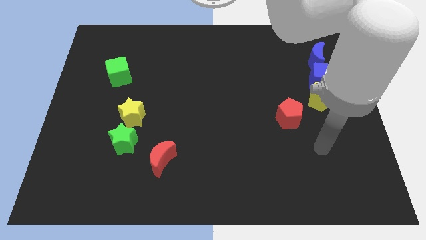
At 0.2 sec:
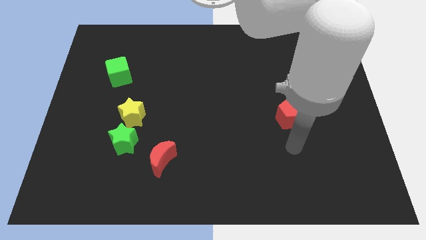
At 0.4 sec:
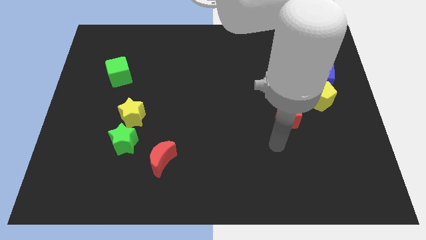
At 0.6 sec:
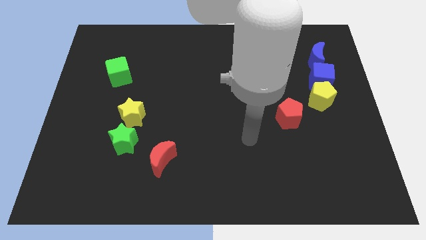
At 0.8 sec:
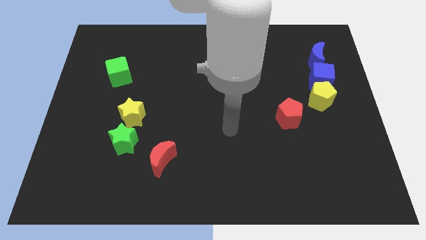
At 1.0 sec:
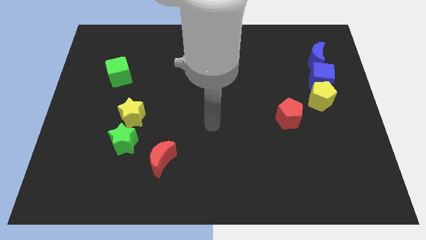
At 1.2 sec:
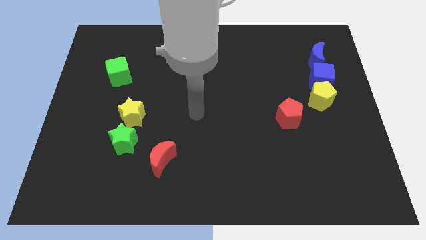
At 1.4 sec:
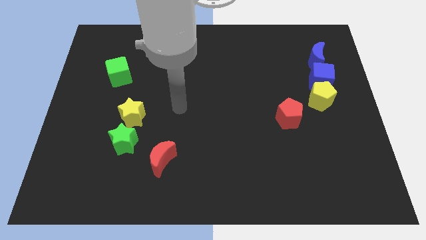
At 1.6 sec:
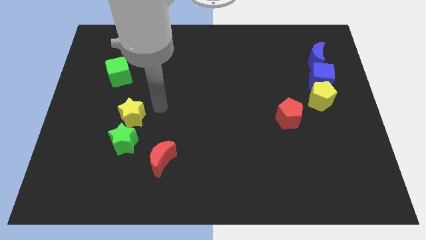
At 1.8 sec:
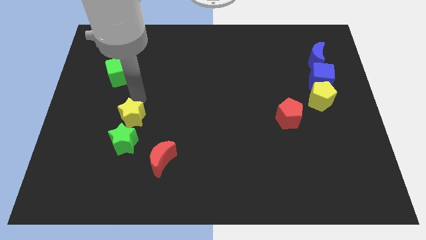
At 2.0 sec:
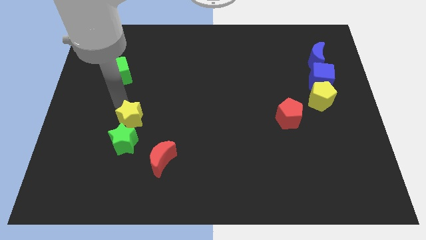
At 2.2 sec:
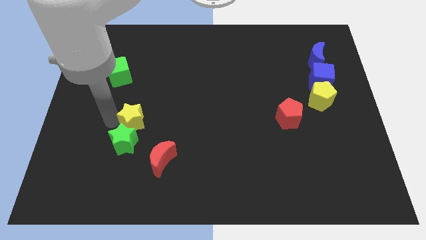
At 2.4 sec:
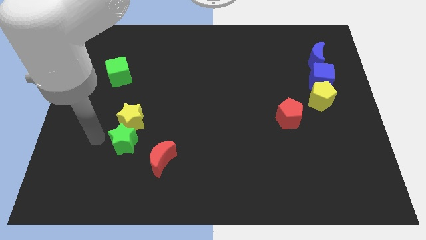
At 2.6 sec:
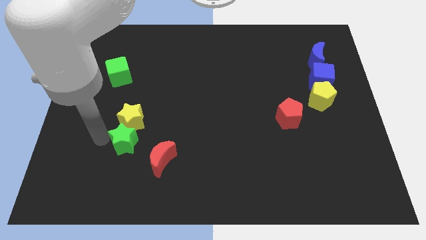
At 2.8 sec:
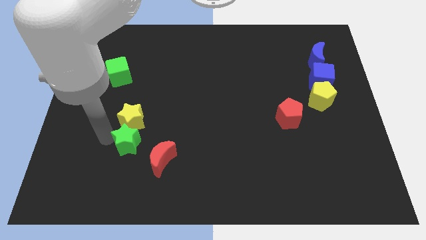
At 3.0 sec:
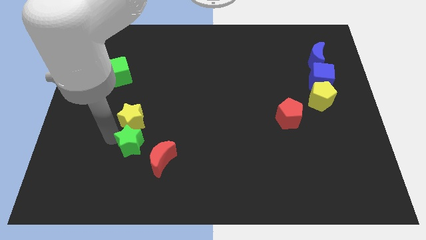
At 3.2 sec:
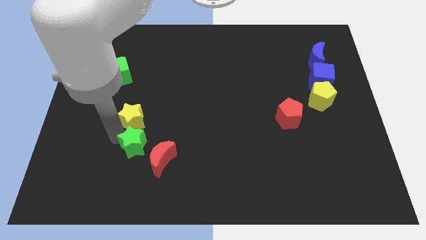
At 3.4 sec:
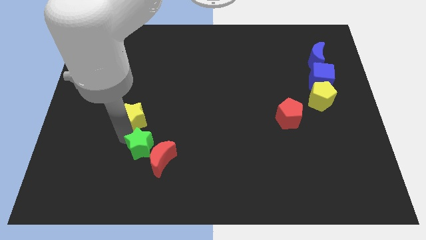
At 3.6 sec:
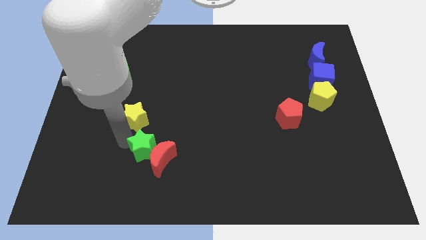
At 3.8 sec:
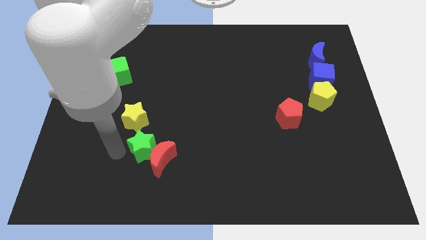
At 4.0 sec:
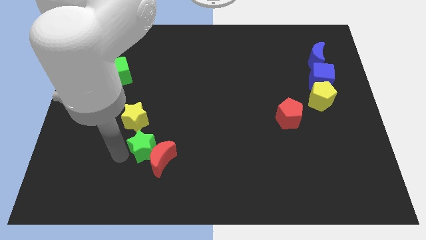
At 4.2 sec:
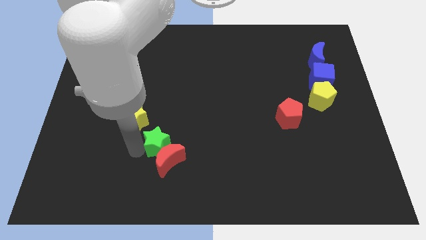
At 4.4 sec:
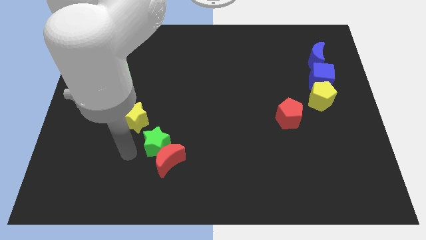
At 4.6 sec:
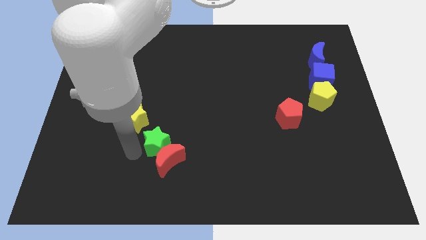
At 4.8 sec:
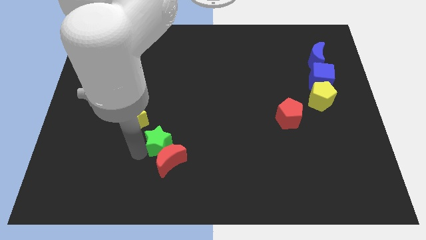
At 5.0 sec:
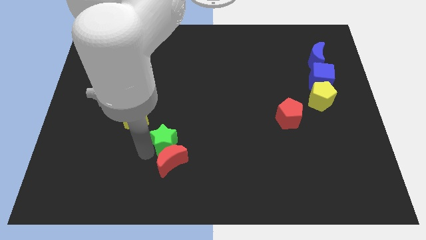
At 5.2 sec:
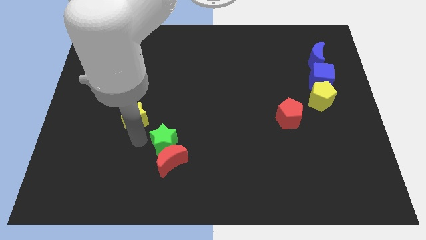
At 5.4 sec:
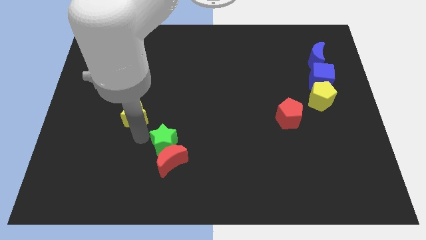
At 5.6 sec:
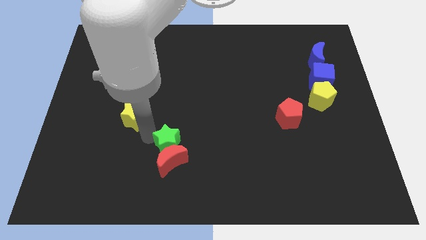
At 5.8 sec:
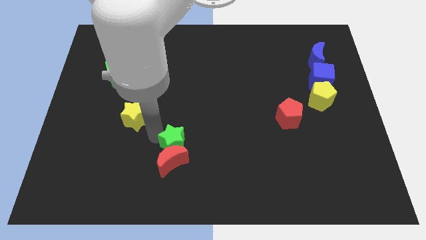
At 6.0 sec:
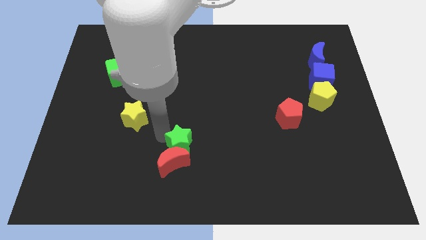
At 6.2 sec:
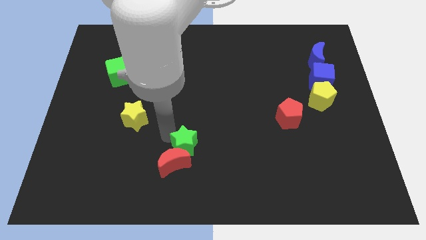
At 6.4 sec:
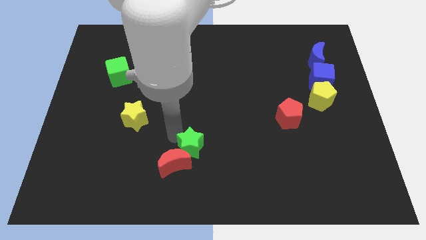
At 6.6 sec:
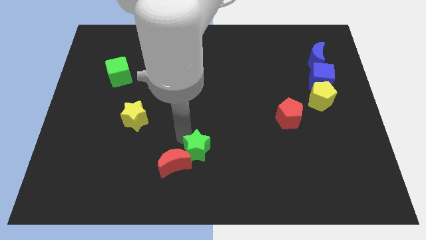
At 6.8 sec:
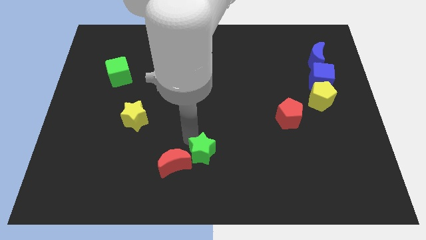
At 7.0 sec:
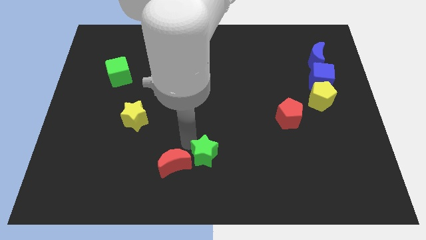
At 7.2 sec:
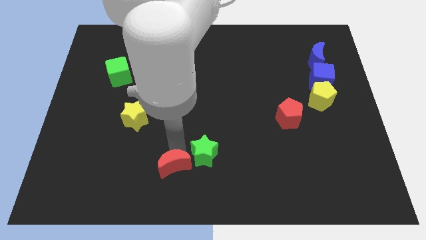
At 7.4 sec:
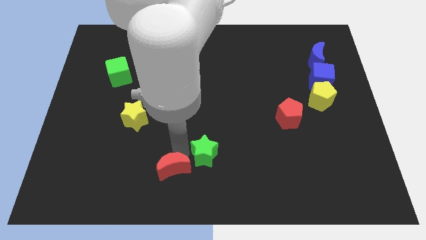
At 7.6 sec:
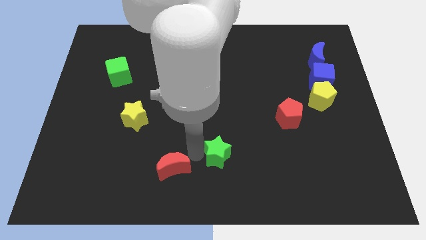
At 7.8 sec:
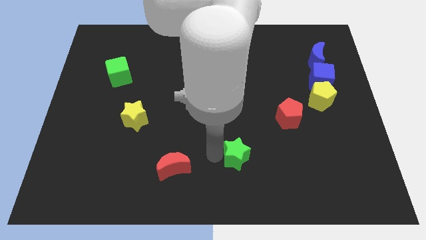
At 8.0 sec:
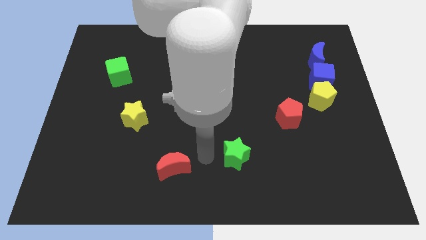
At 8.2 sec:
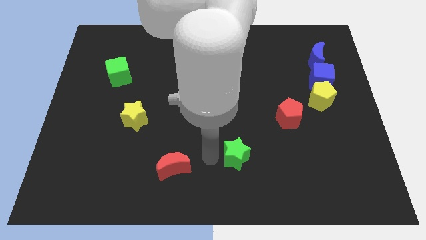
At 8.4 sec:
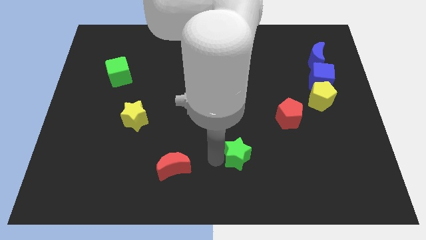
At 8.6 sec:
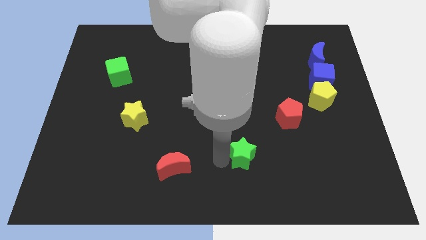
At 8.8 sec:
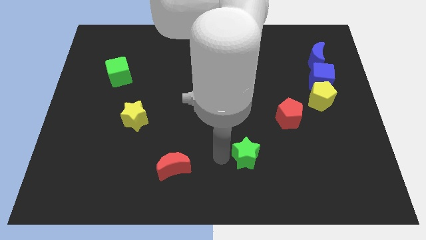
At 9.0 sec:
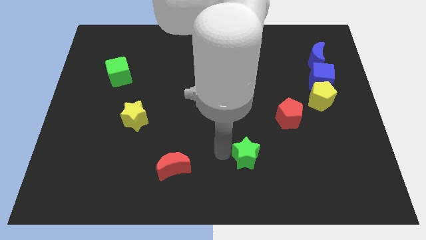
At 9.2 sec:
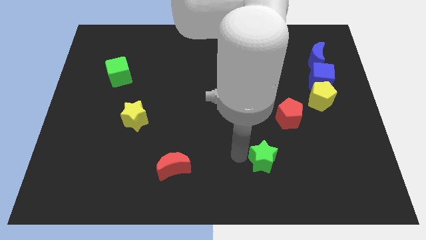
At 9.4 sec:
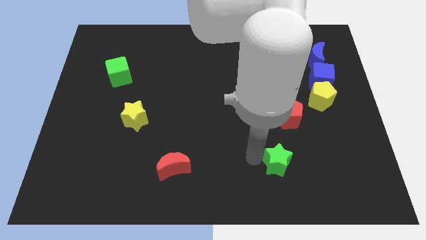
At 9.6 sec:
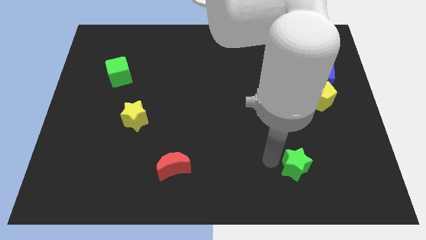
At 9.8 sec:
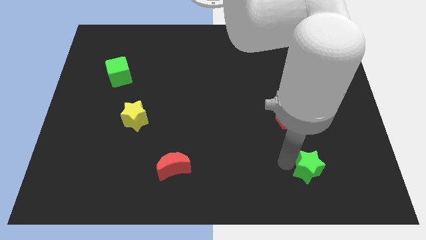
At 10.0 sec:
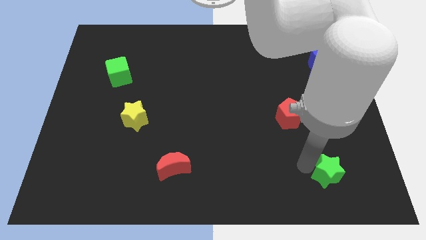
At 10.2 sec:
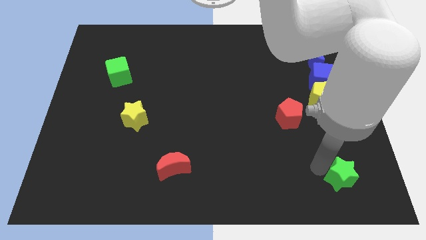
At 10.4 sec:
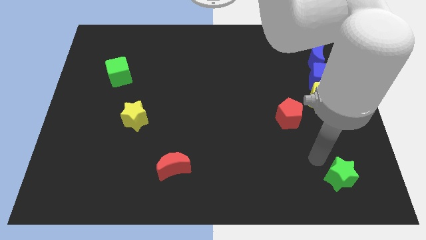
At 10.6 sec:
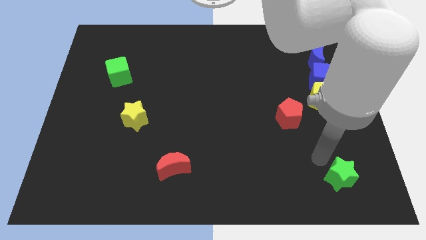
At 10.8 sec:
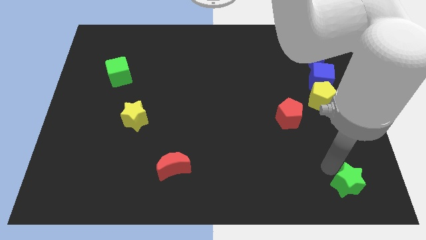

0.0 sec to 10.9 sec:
put the green star to the bottom right corner

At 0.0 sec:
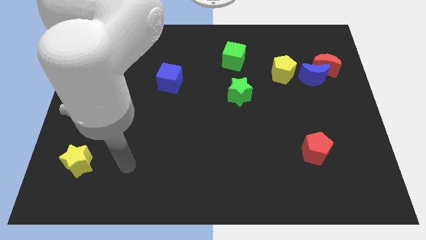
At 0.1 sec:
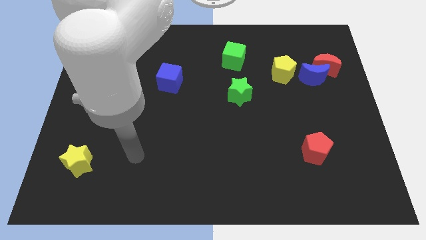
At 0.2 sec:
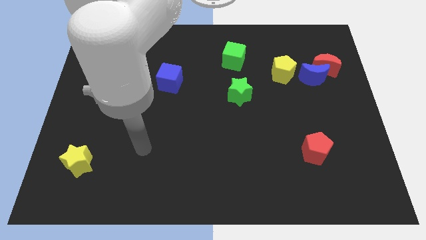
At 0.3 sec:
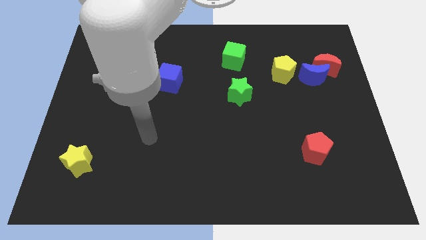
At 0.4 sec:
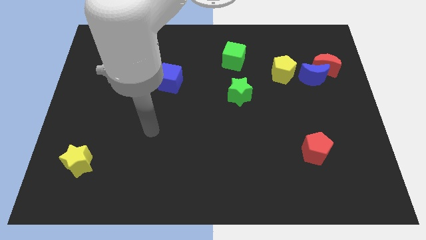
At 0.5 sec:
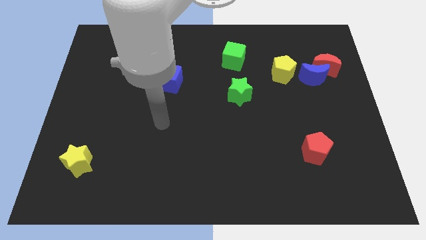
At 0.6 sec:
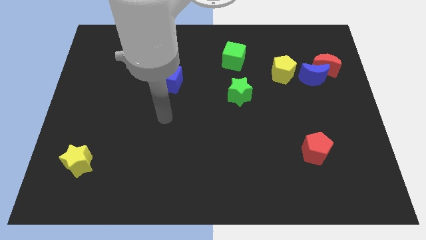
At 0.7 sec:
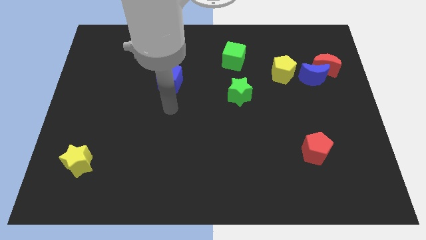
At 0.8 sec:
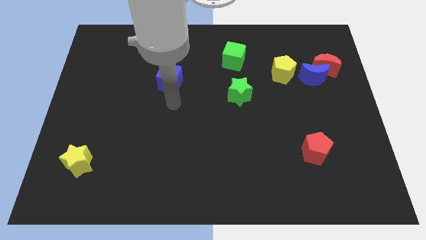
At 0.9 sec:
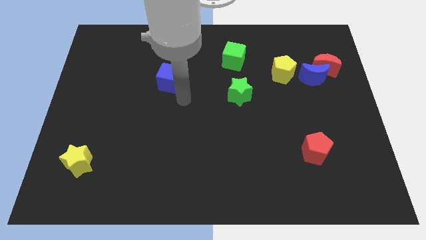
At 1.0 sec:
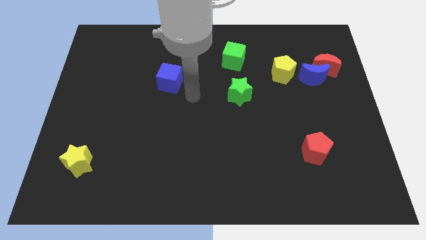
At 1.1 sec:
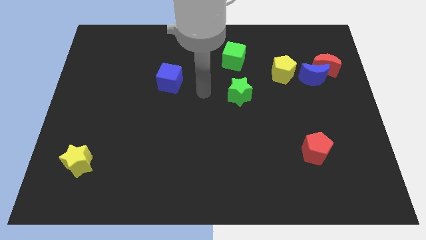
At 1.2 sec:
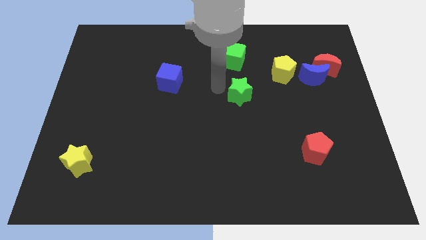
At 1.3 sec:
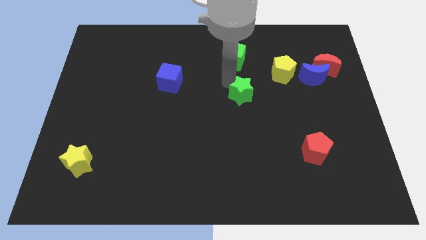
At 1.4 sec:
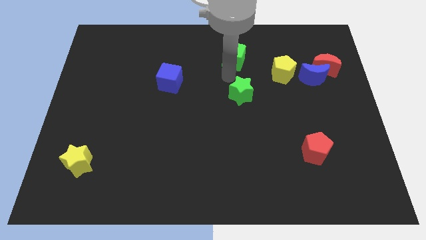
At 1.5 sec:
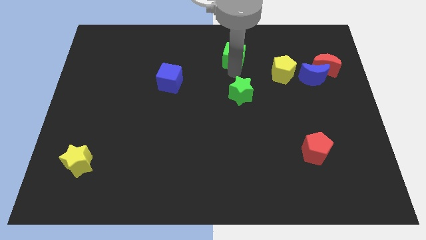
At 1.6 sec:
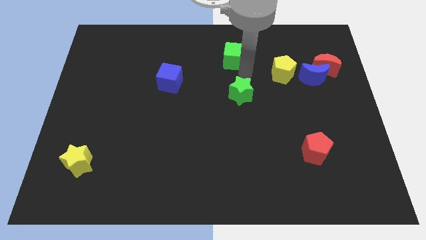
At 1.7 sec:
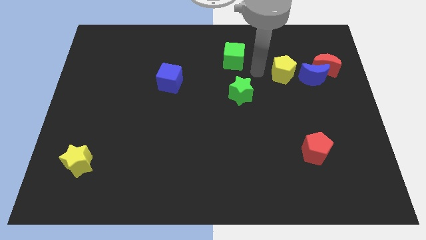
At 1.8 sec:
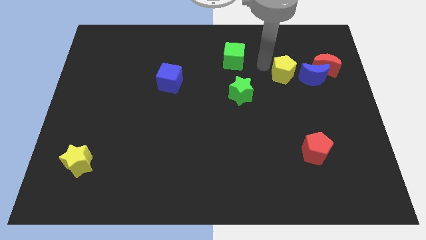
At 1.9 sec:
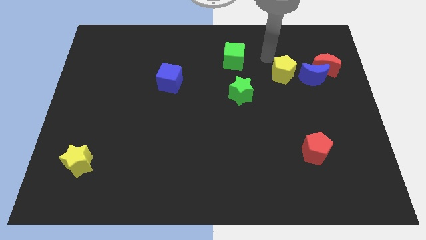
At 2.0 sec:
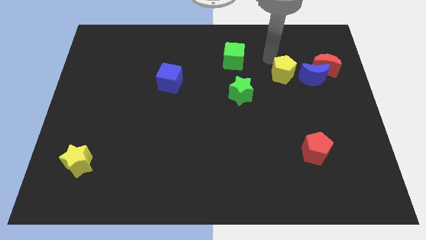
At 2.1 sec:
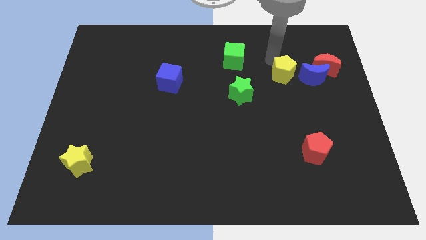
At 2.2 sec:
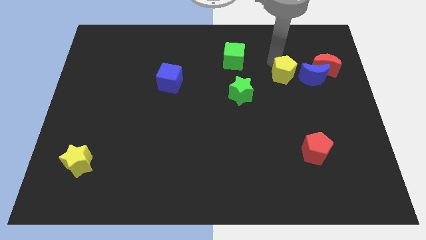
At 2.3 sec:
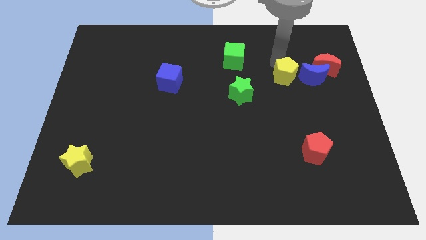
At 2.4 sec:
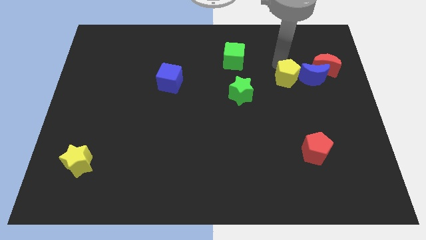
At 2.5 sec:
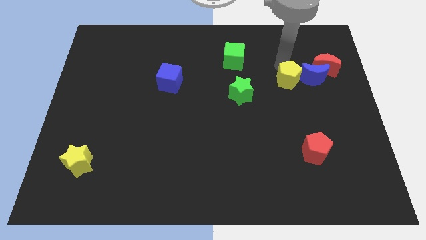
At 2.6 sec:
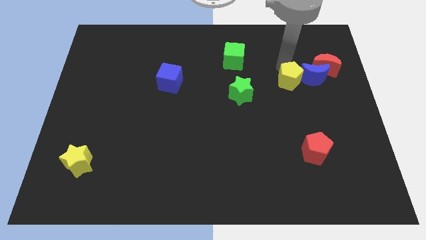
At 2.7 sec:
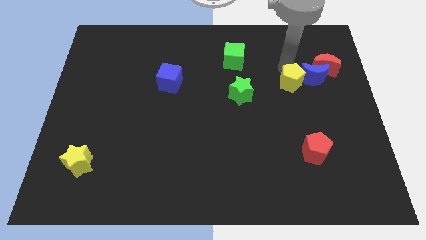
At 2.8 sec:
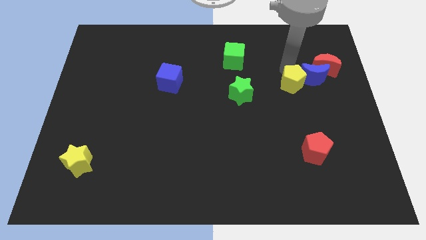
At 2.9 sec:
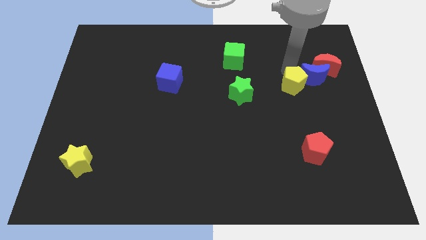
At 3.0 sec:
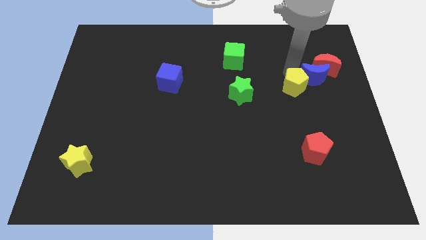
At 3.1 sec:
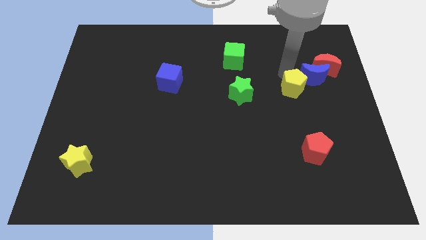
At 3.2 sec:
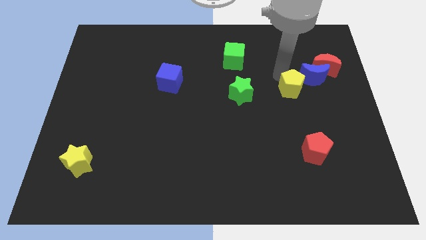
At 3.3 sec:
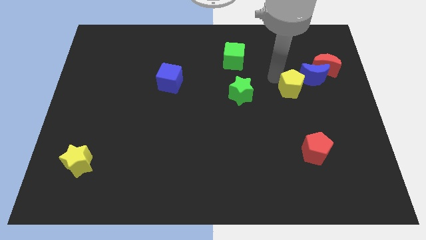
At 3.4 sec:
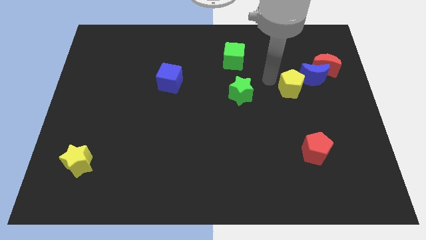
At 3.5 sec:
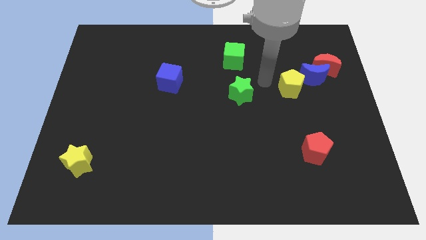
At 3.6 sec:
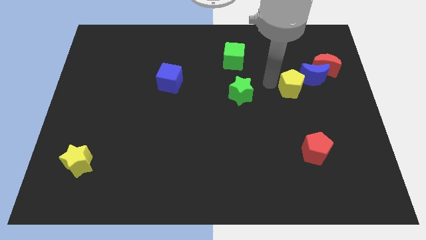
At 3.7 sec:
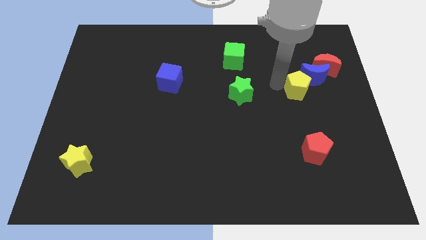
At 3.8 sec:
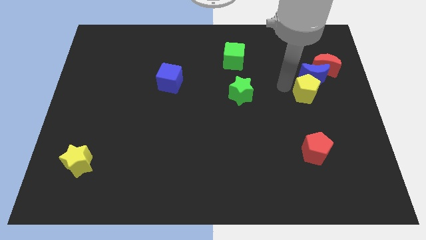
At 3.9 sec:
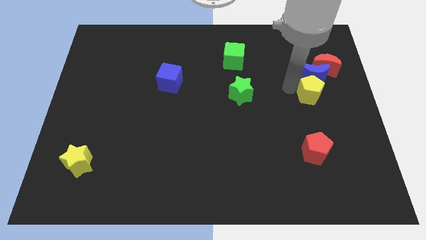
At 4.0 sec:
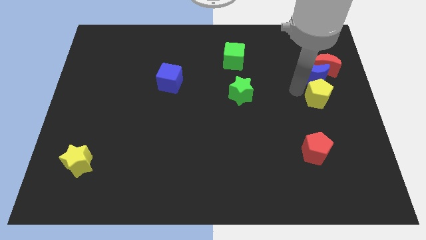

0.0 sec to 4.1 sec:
move the yellow pentagon to the center right
